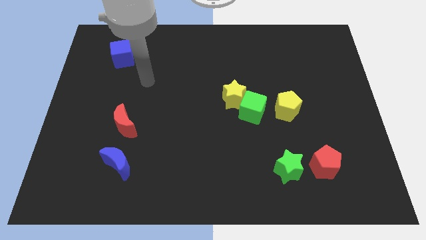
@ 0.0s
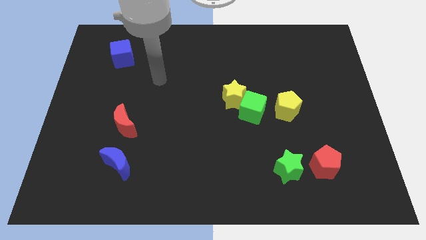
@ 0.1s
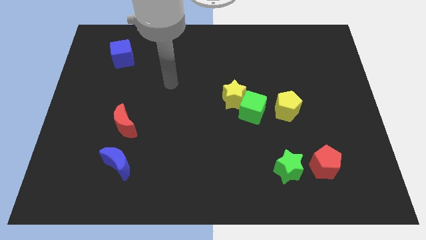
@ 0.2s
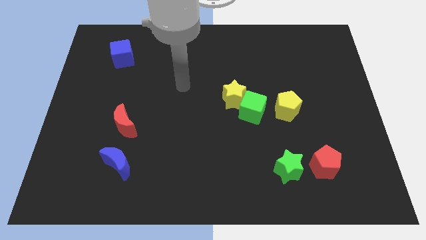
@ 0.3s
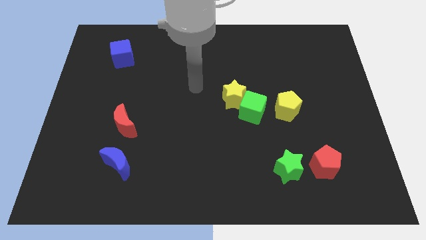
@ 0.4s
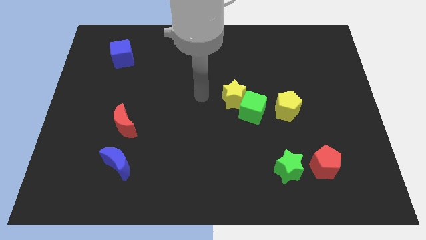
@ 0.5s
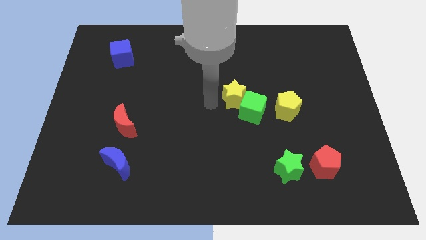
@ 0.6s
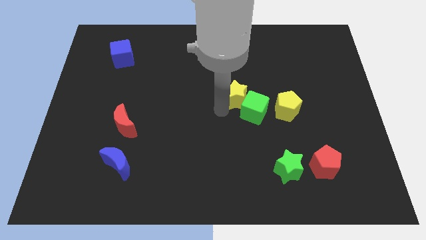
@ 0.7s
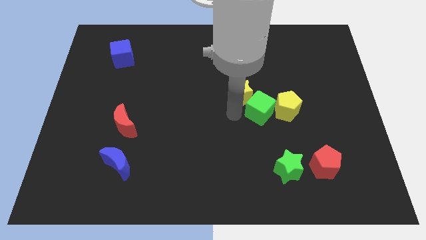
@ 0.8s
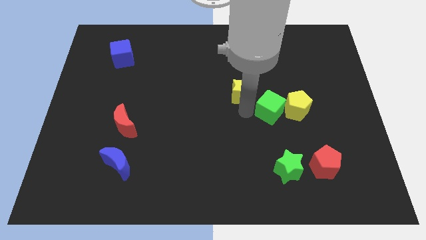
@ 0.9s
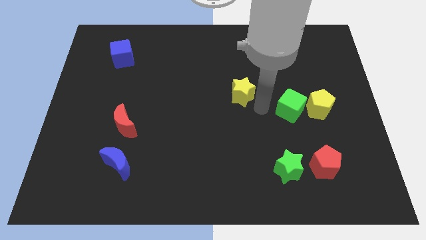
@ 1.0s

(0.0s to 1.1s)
pull the yellow star apart from the green cube

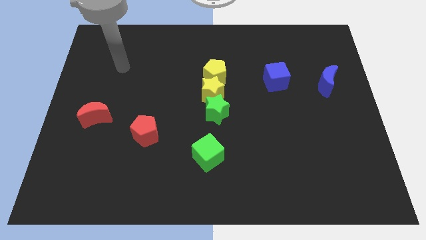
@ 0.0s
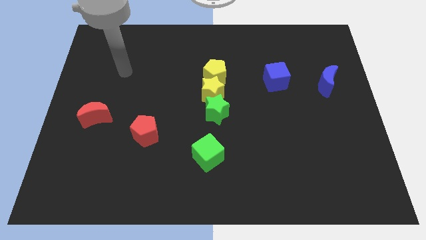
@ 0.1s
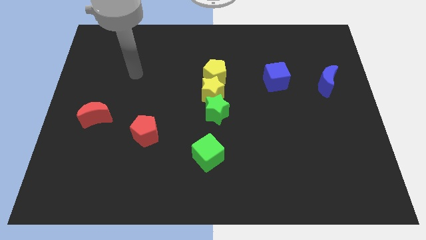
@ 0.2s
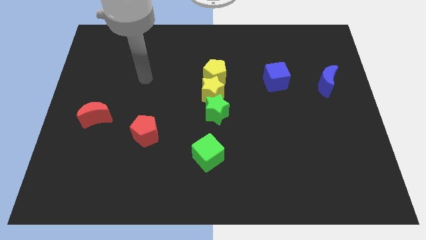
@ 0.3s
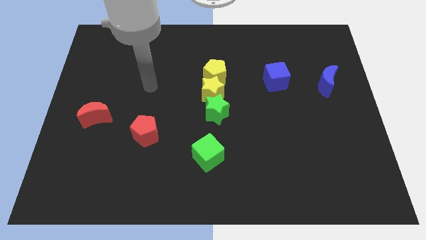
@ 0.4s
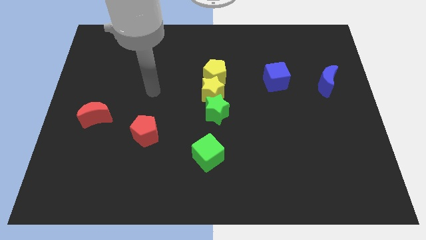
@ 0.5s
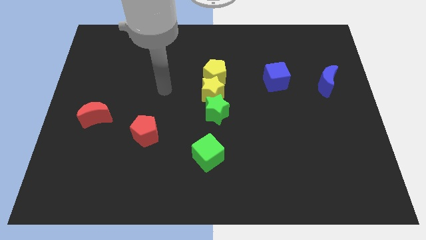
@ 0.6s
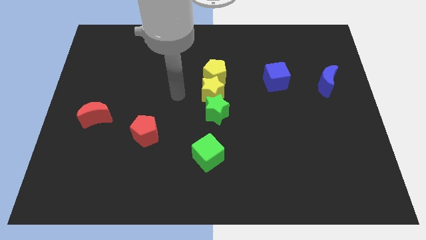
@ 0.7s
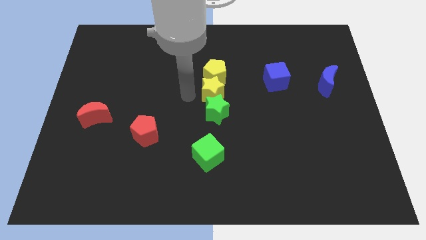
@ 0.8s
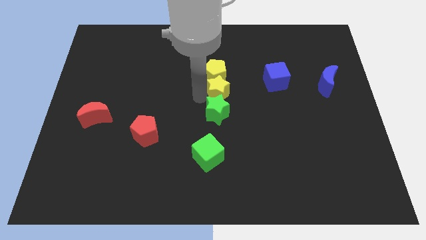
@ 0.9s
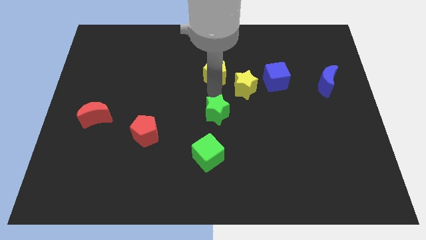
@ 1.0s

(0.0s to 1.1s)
pull the green star apart from the yellow star

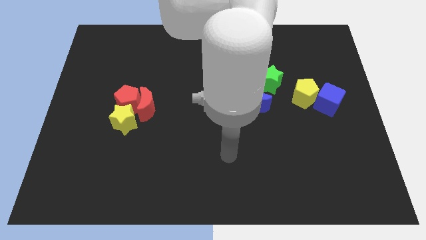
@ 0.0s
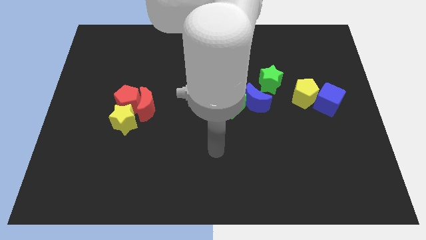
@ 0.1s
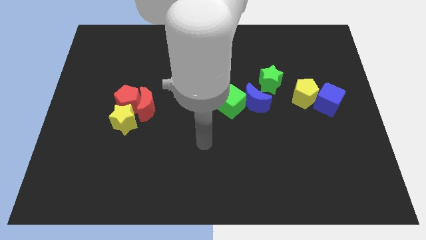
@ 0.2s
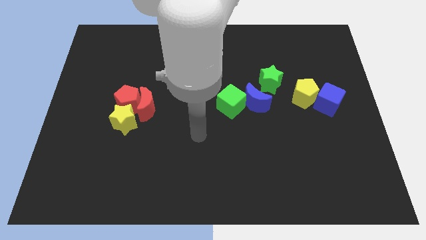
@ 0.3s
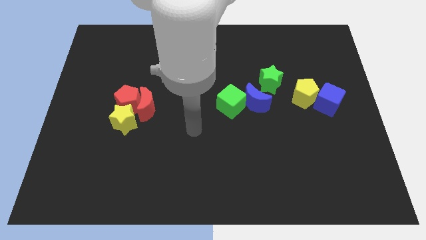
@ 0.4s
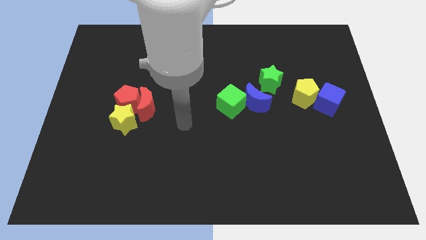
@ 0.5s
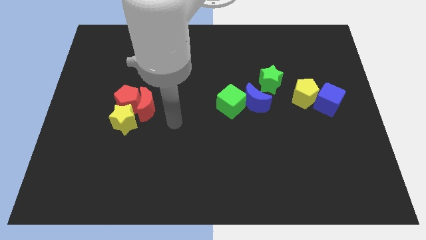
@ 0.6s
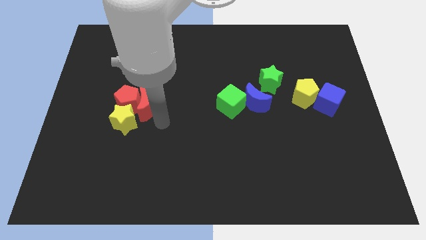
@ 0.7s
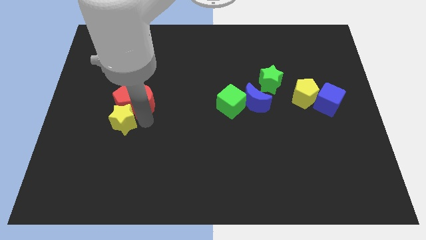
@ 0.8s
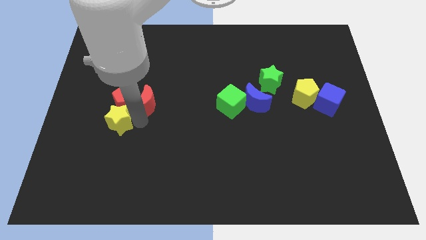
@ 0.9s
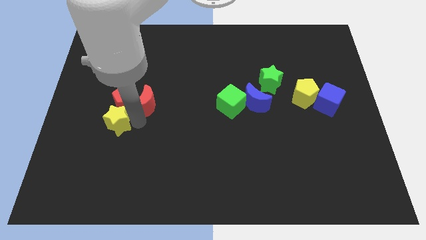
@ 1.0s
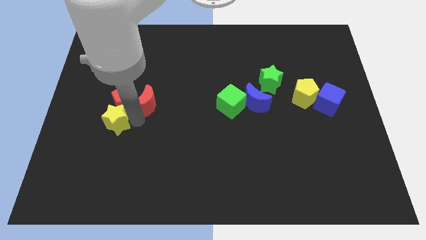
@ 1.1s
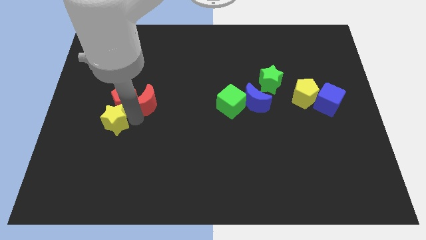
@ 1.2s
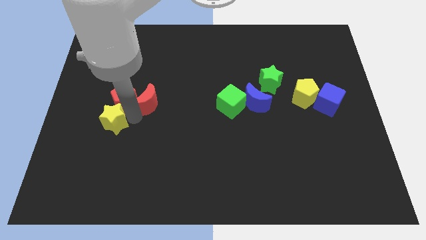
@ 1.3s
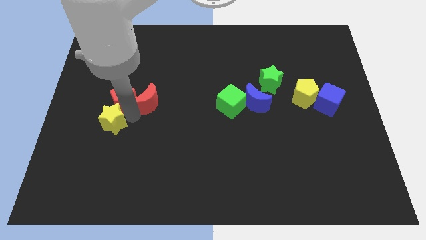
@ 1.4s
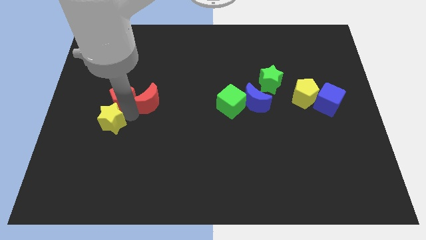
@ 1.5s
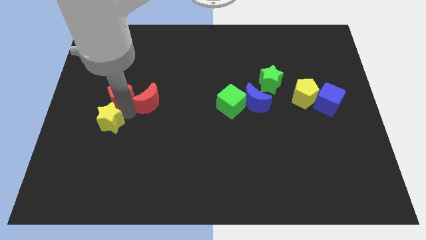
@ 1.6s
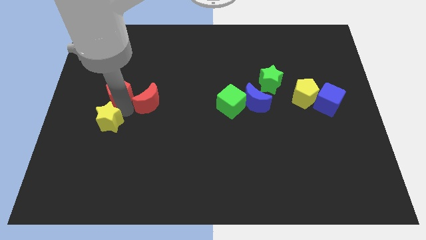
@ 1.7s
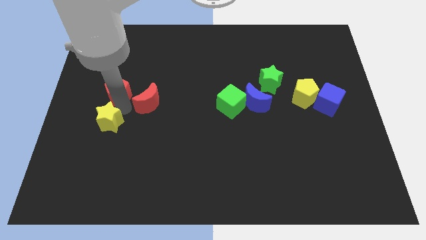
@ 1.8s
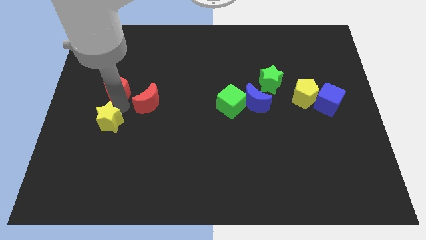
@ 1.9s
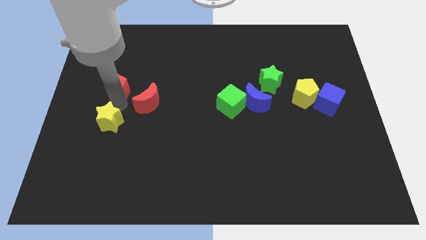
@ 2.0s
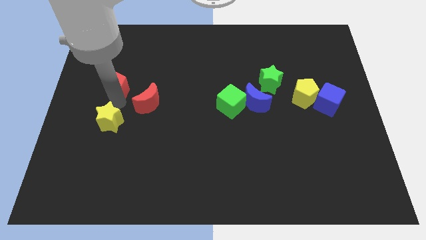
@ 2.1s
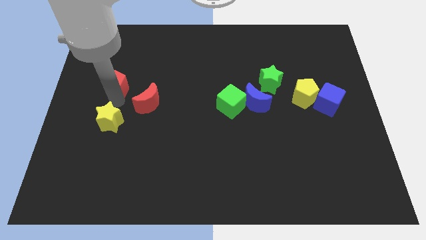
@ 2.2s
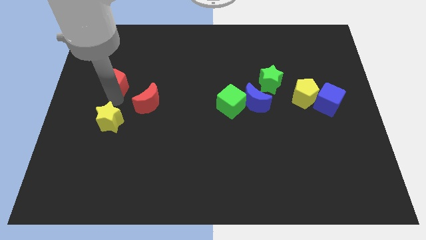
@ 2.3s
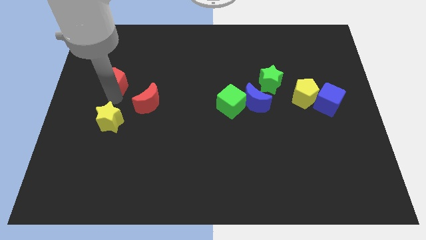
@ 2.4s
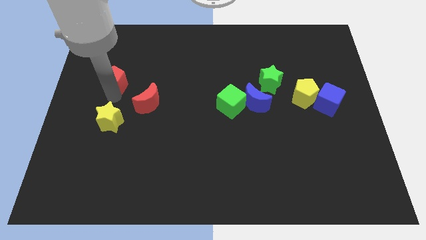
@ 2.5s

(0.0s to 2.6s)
move the red pentagon away from the red moon and yellow star

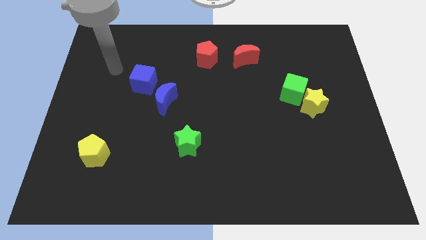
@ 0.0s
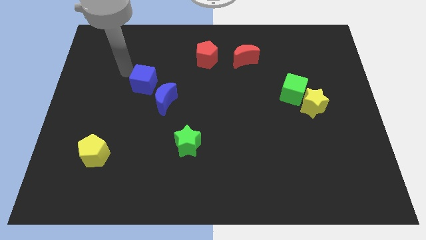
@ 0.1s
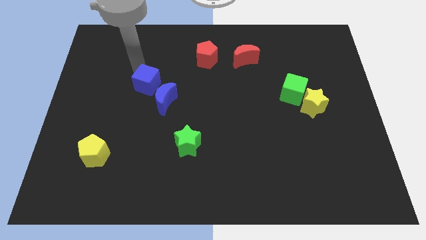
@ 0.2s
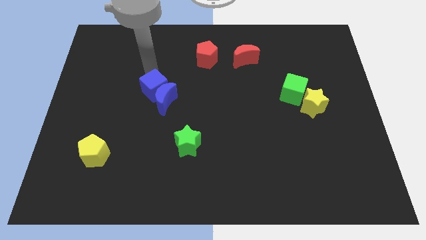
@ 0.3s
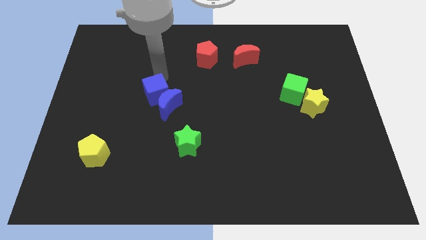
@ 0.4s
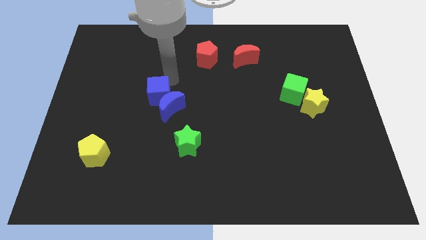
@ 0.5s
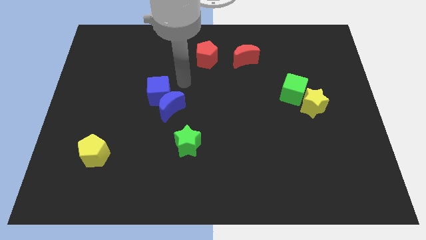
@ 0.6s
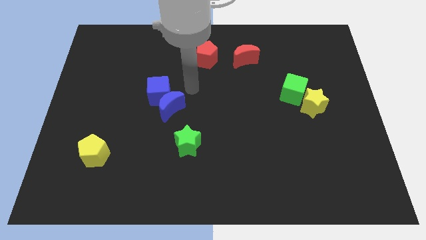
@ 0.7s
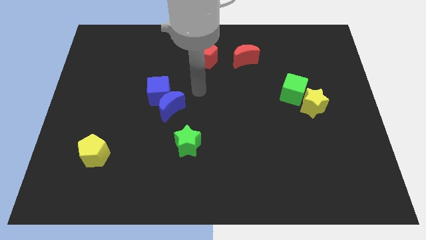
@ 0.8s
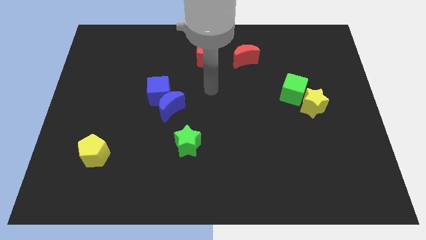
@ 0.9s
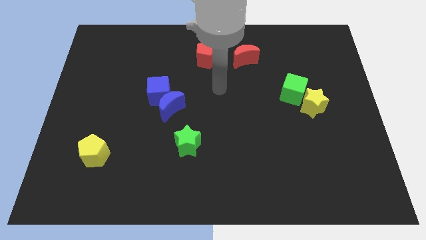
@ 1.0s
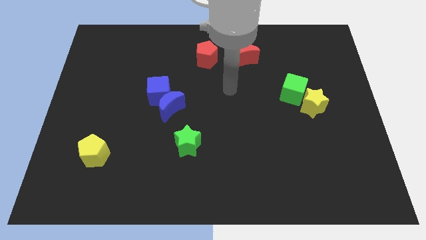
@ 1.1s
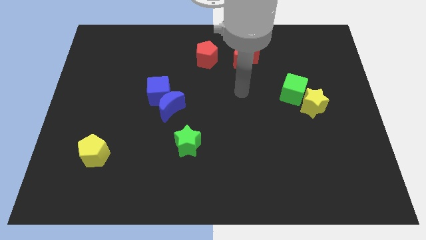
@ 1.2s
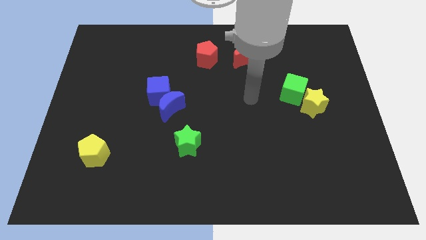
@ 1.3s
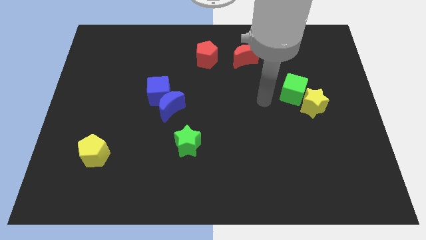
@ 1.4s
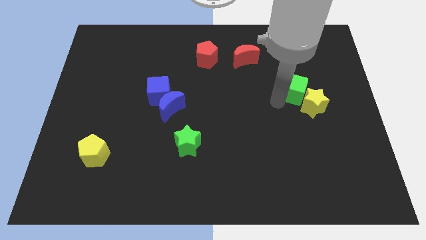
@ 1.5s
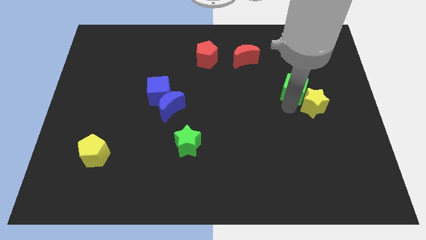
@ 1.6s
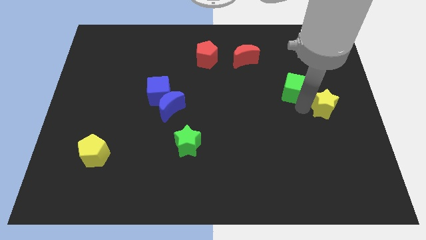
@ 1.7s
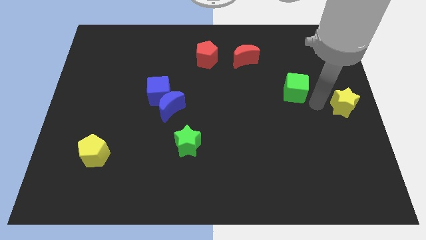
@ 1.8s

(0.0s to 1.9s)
move the green cube away from the yellow star

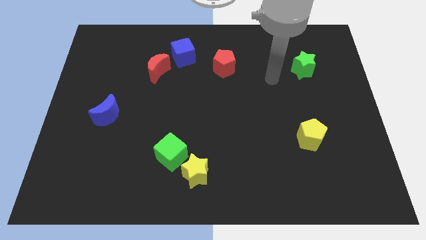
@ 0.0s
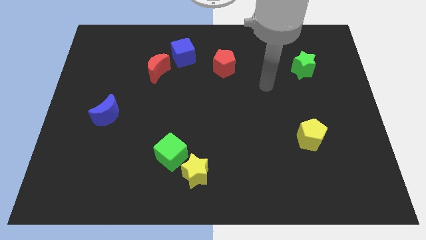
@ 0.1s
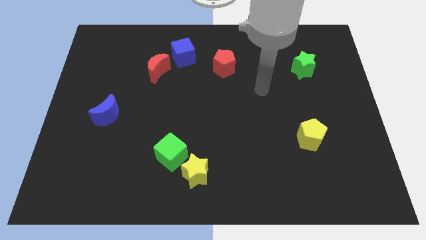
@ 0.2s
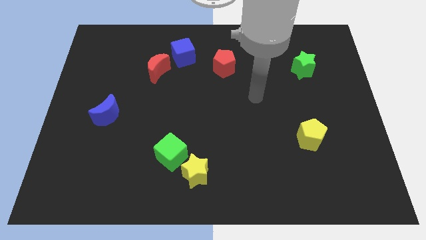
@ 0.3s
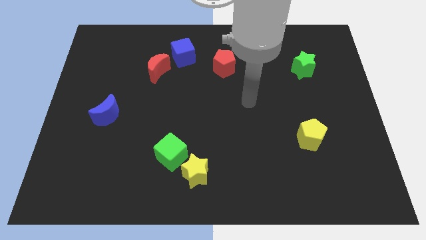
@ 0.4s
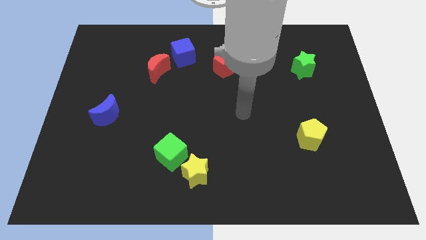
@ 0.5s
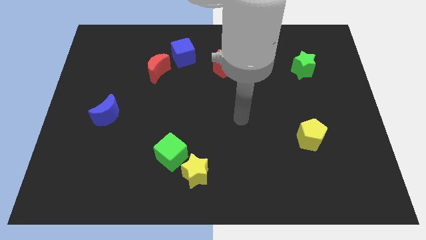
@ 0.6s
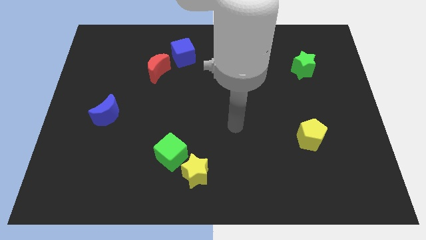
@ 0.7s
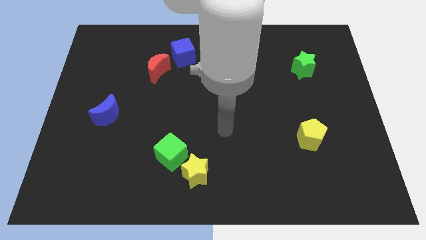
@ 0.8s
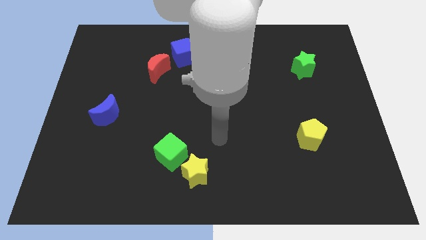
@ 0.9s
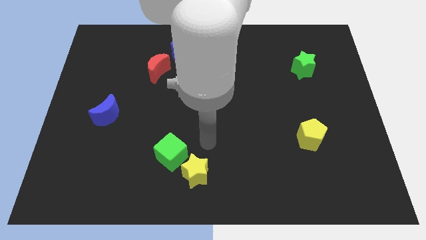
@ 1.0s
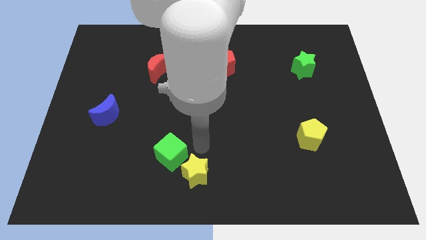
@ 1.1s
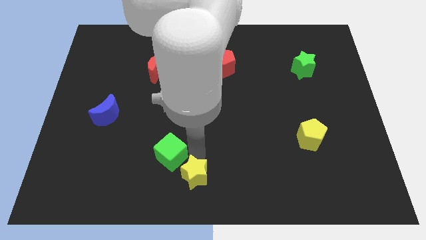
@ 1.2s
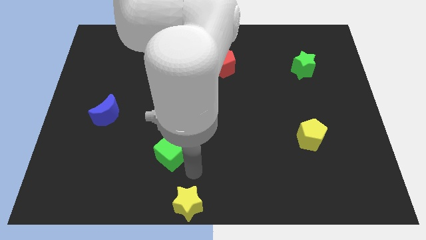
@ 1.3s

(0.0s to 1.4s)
separate the green cube from the yellow star

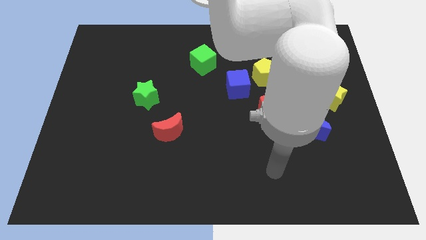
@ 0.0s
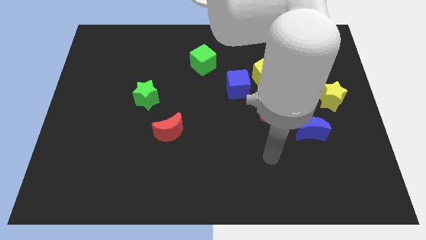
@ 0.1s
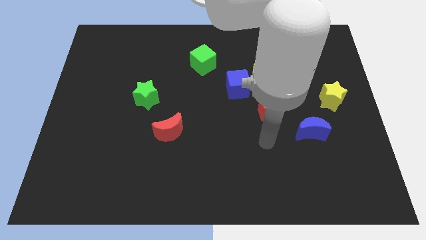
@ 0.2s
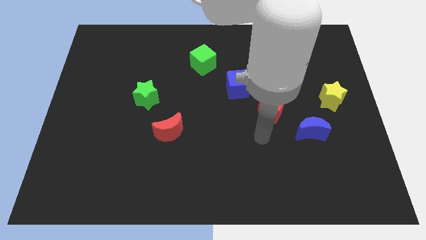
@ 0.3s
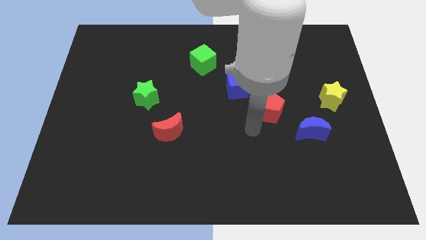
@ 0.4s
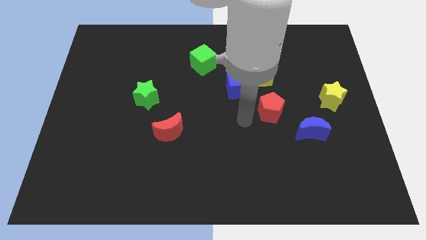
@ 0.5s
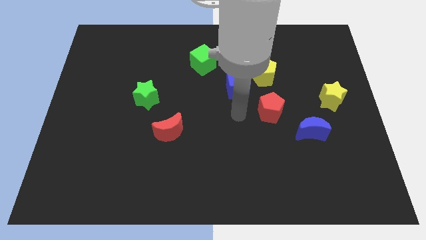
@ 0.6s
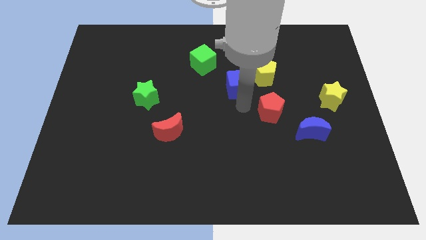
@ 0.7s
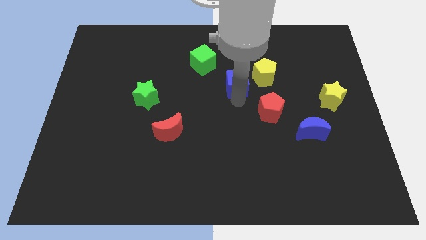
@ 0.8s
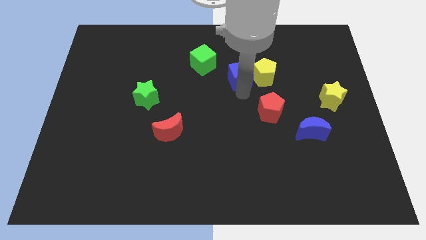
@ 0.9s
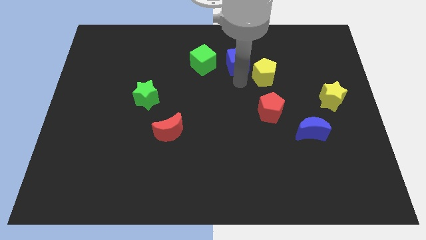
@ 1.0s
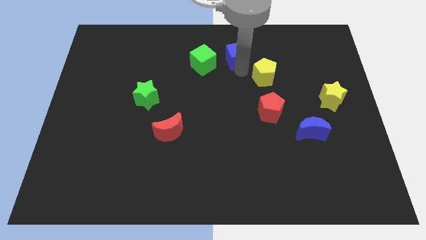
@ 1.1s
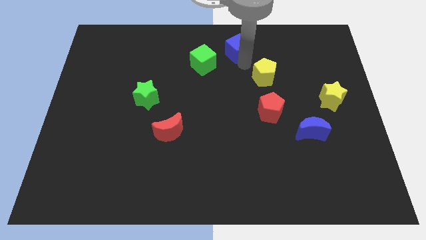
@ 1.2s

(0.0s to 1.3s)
pull the yellow pentagon apart from the blue cube
